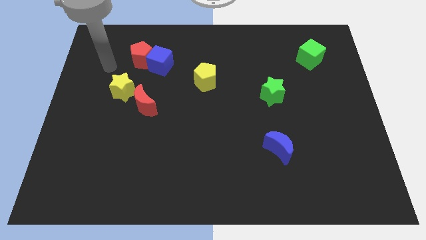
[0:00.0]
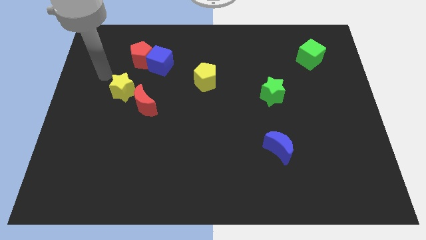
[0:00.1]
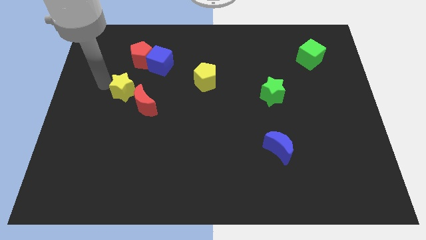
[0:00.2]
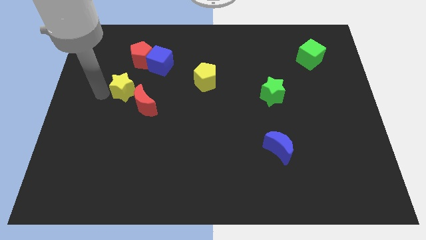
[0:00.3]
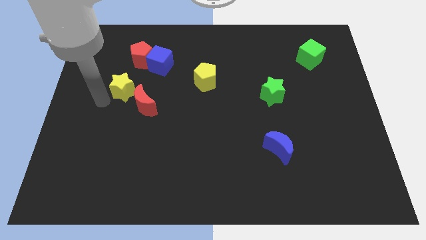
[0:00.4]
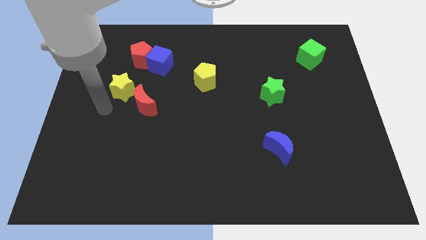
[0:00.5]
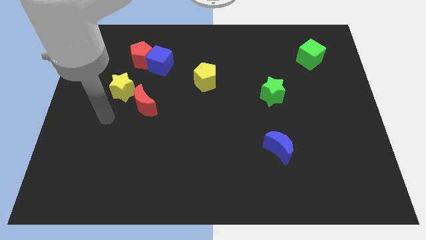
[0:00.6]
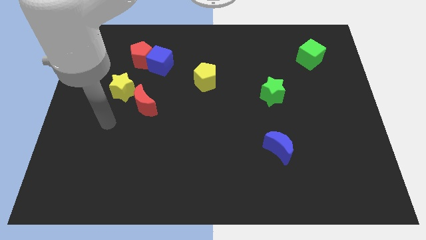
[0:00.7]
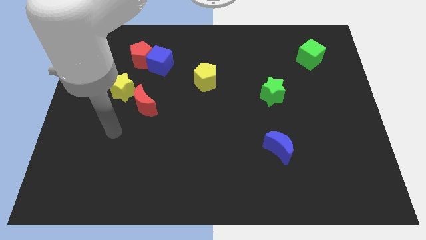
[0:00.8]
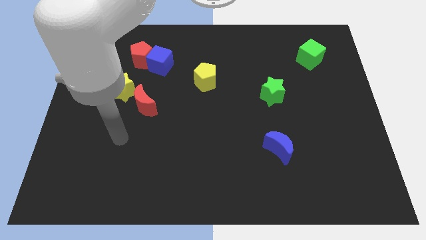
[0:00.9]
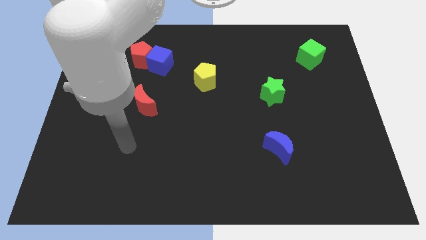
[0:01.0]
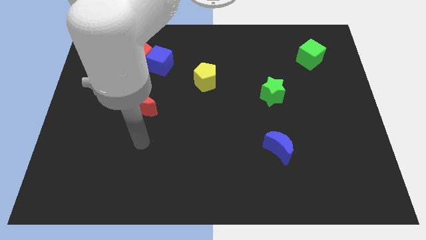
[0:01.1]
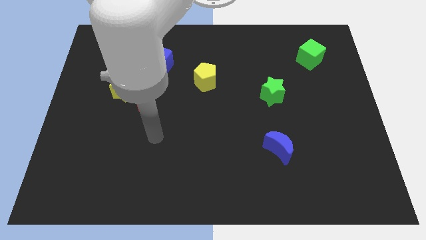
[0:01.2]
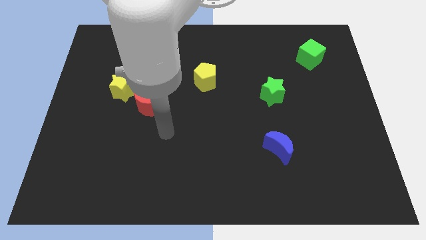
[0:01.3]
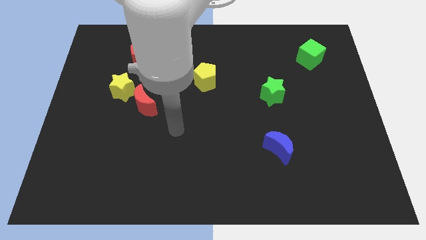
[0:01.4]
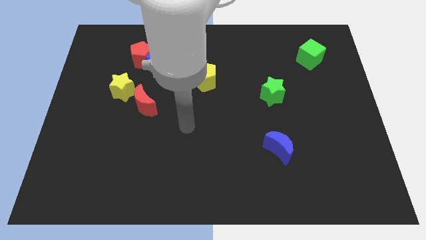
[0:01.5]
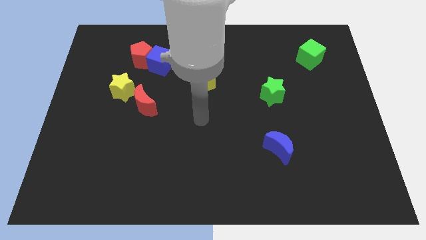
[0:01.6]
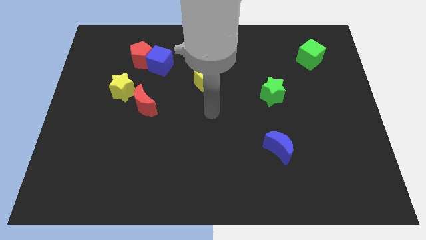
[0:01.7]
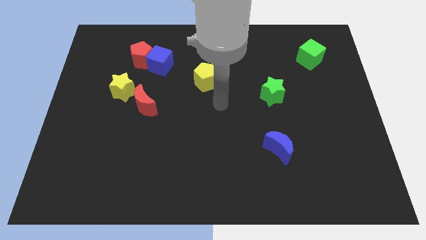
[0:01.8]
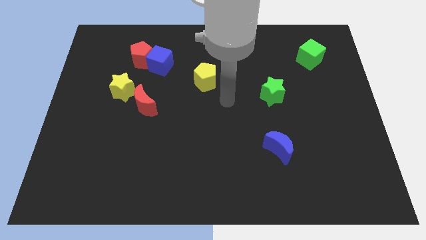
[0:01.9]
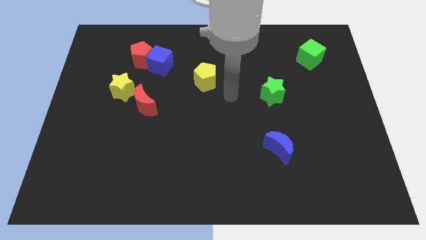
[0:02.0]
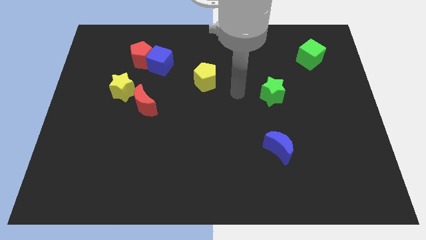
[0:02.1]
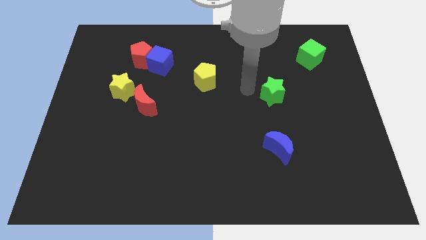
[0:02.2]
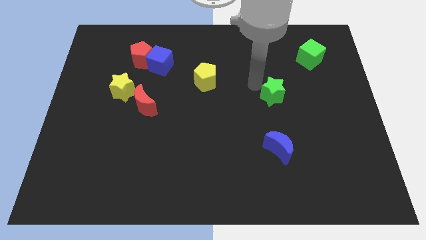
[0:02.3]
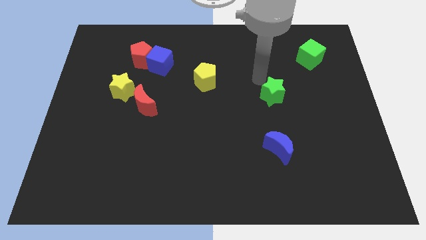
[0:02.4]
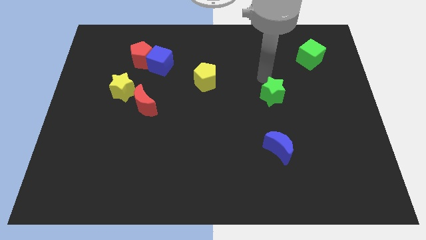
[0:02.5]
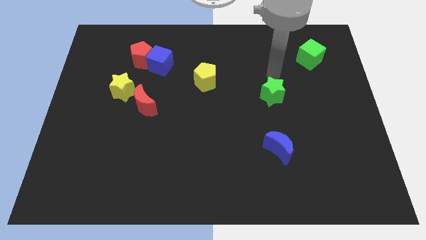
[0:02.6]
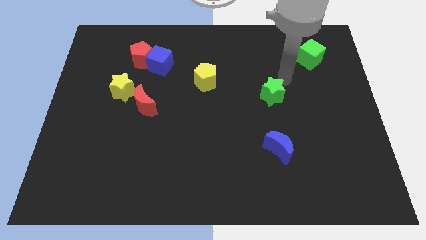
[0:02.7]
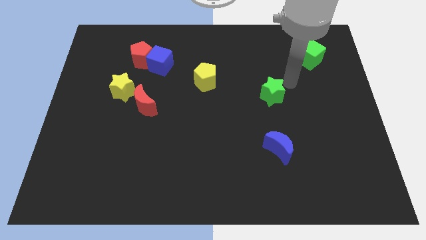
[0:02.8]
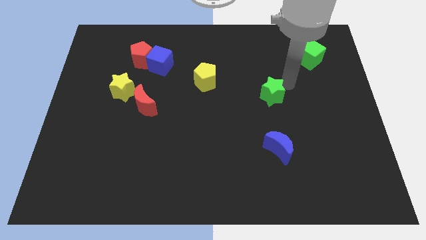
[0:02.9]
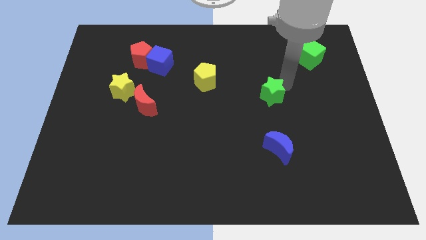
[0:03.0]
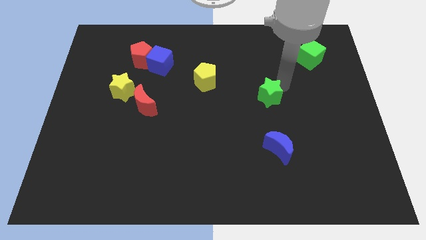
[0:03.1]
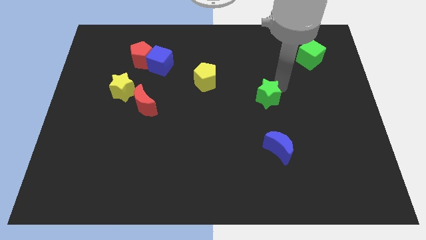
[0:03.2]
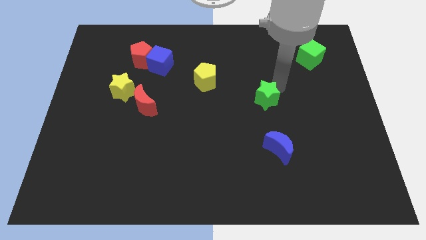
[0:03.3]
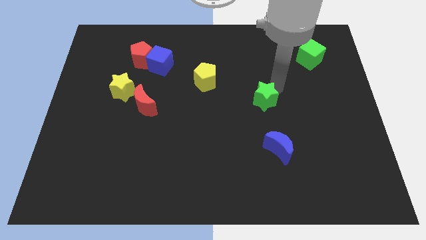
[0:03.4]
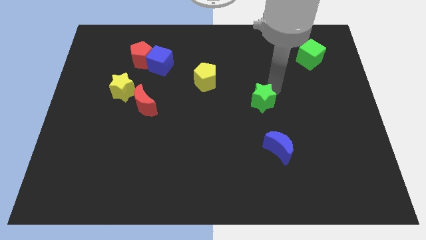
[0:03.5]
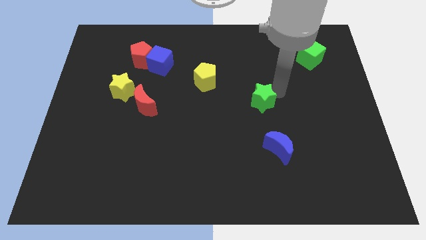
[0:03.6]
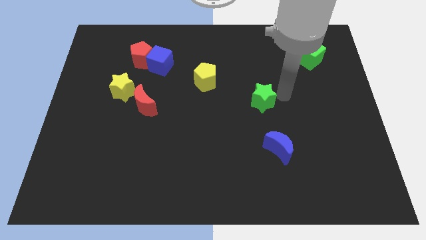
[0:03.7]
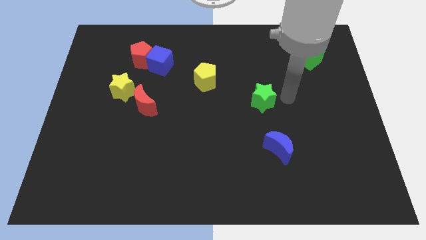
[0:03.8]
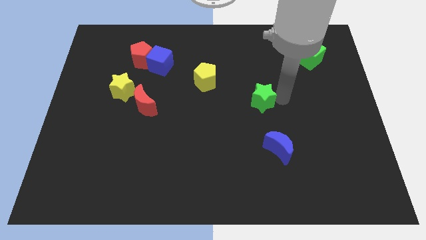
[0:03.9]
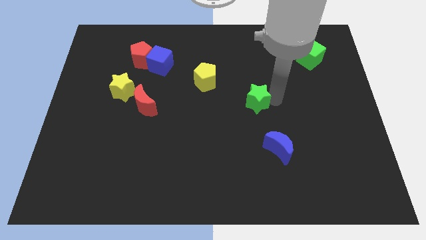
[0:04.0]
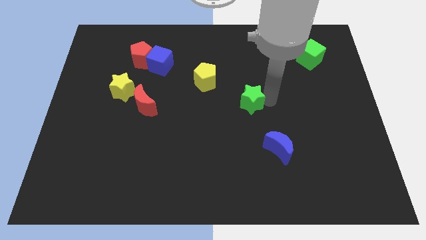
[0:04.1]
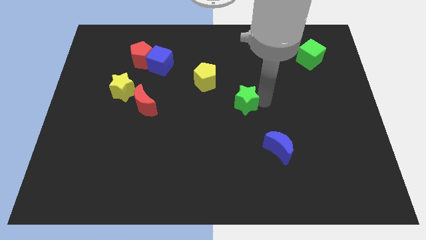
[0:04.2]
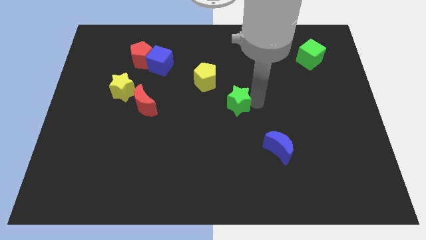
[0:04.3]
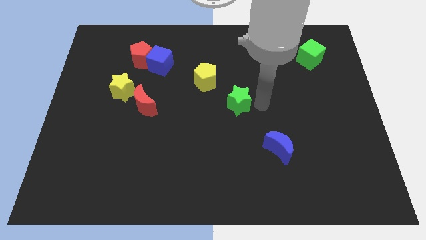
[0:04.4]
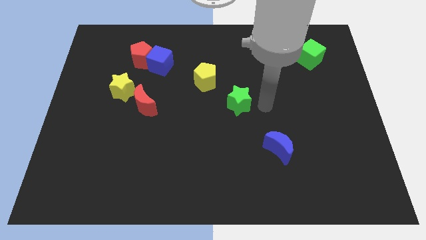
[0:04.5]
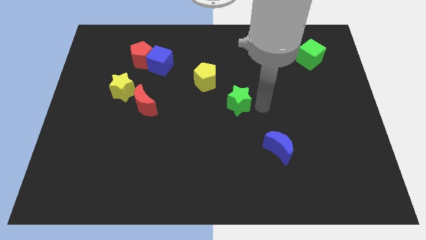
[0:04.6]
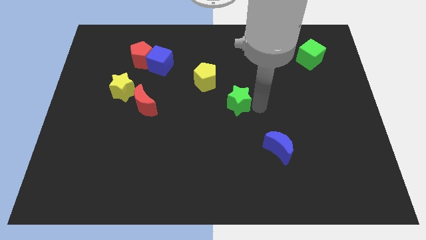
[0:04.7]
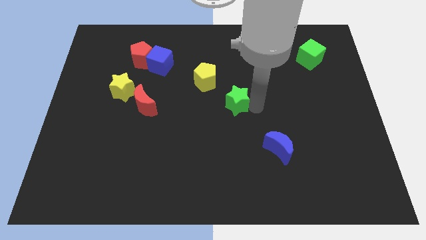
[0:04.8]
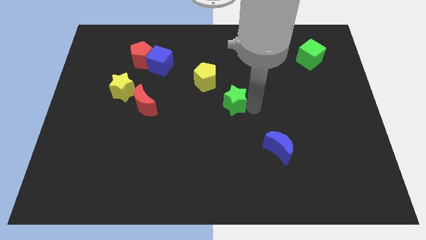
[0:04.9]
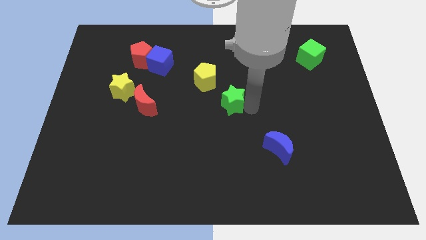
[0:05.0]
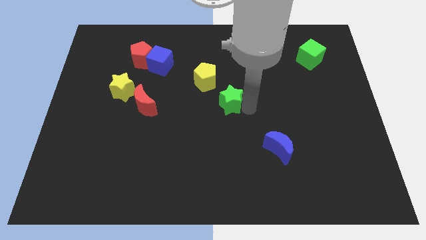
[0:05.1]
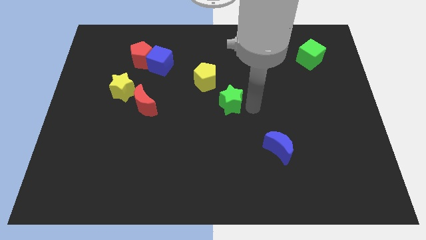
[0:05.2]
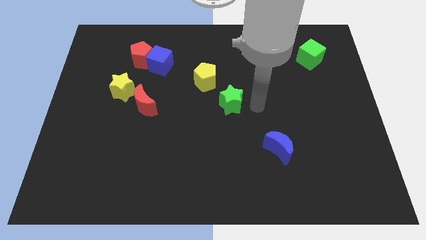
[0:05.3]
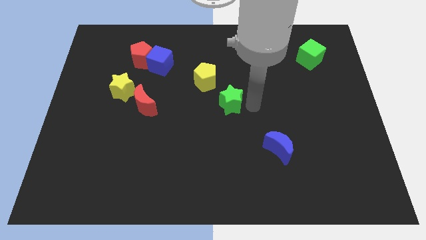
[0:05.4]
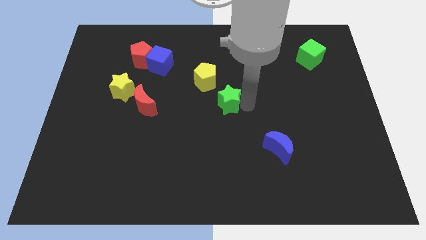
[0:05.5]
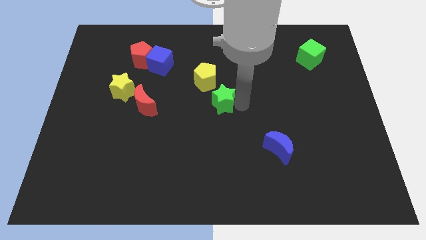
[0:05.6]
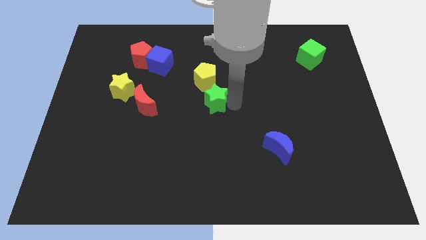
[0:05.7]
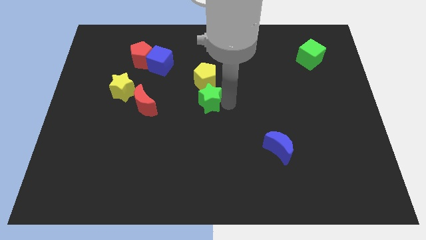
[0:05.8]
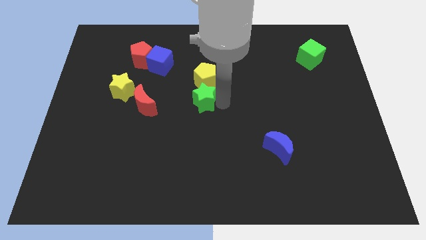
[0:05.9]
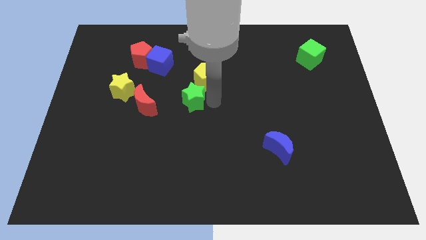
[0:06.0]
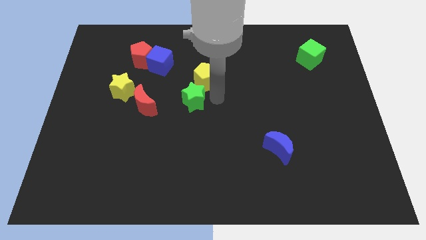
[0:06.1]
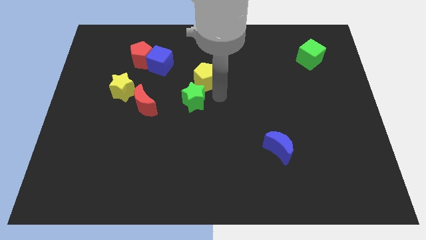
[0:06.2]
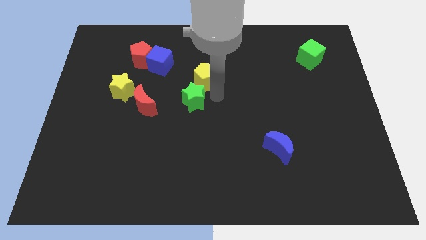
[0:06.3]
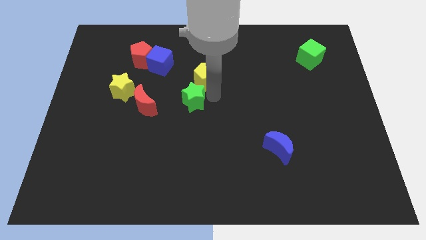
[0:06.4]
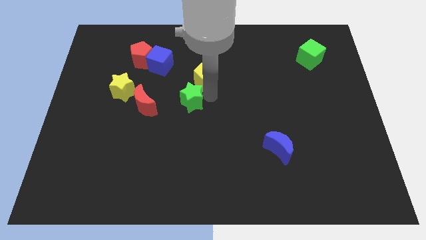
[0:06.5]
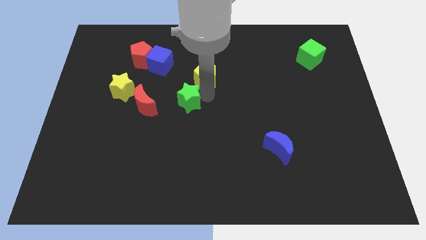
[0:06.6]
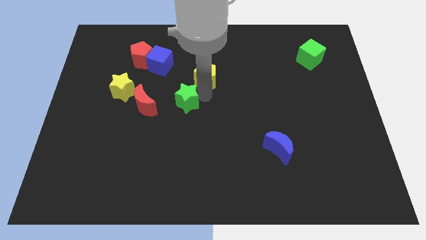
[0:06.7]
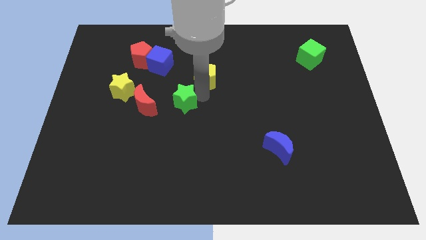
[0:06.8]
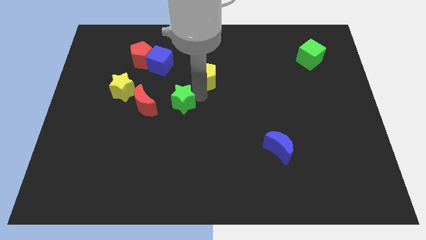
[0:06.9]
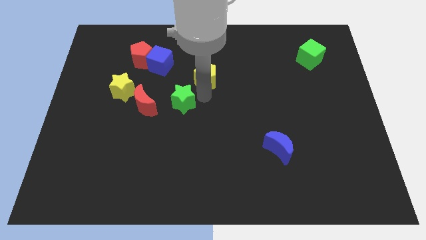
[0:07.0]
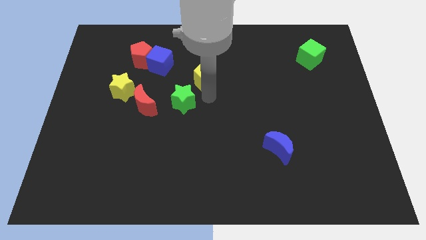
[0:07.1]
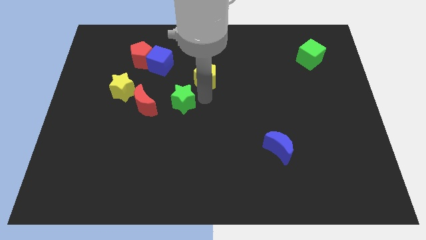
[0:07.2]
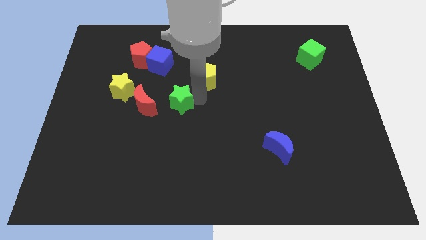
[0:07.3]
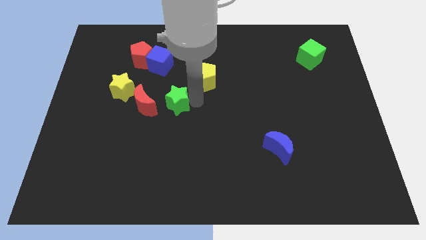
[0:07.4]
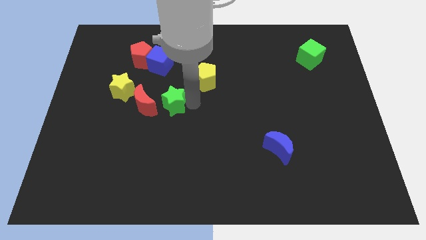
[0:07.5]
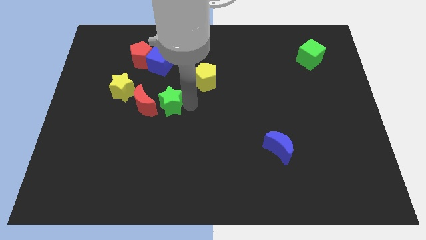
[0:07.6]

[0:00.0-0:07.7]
push the green star next to the red moon
